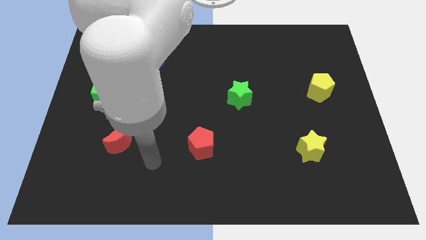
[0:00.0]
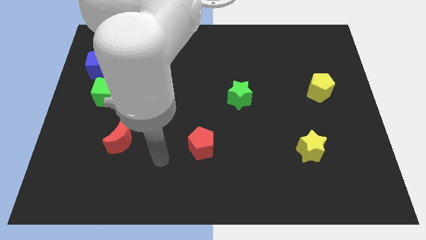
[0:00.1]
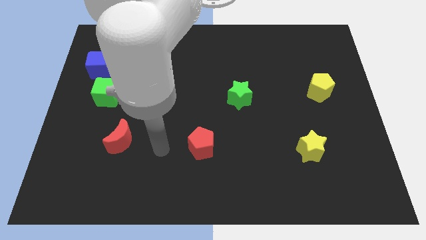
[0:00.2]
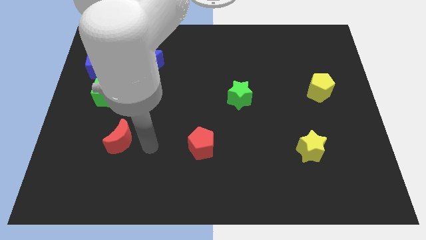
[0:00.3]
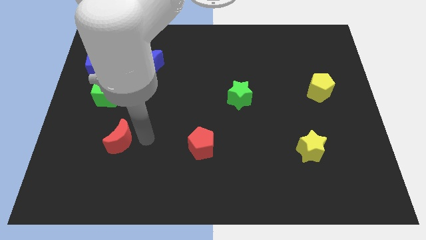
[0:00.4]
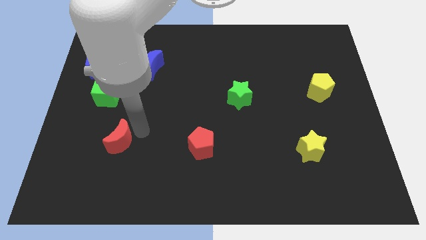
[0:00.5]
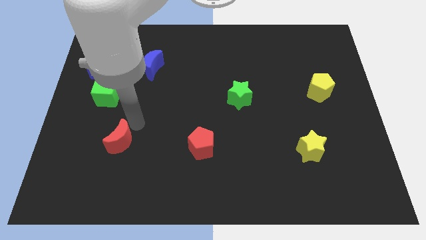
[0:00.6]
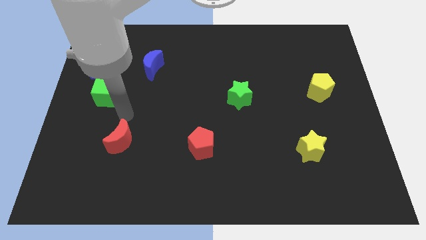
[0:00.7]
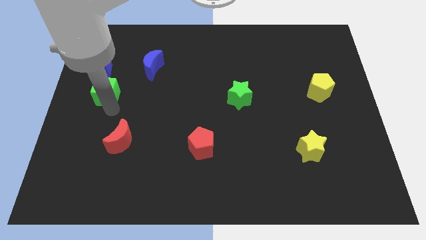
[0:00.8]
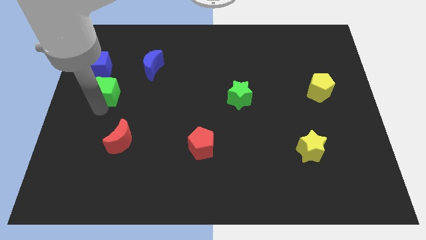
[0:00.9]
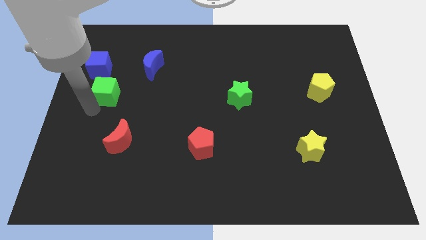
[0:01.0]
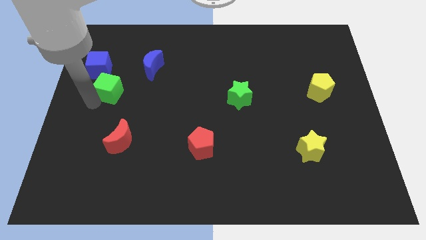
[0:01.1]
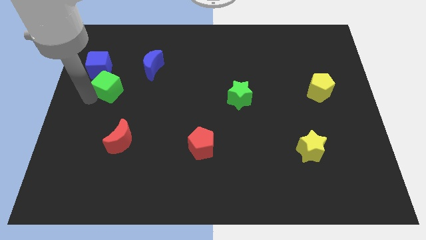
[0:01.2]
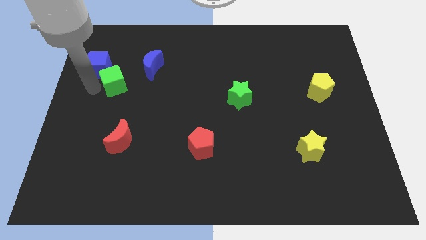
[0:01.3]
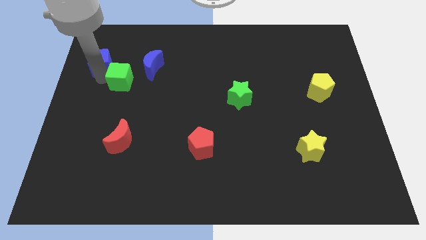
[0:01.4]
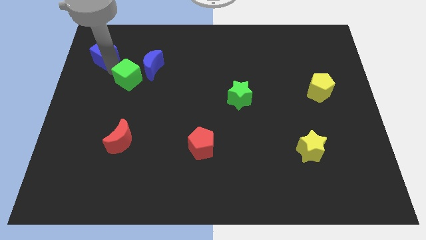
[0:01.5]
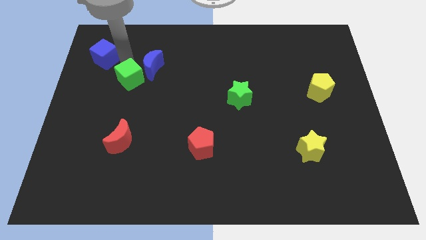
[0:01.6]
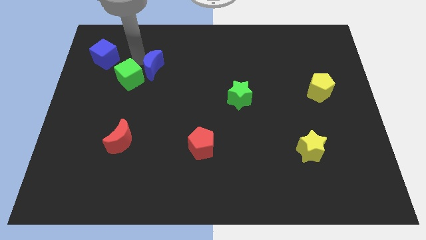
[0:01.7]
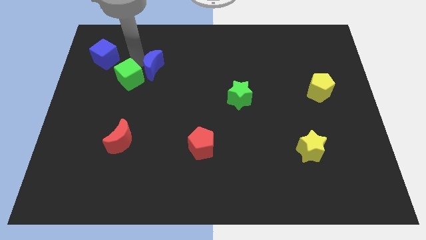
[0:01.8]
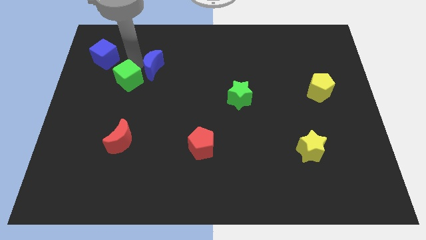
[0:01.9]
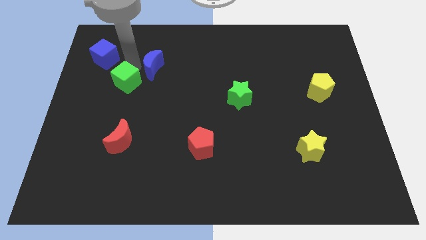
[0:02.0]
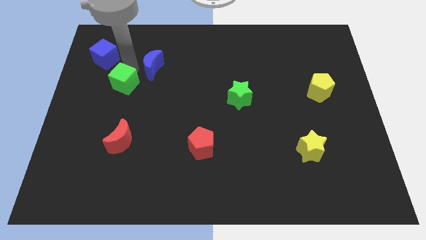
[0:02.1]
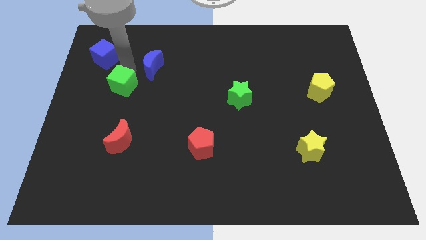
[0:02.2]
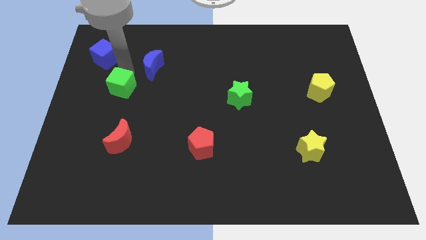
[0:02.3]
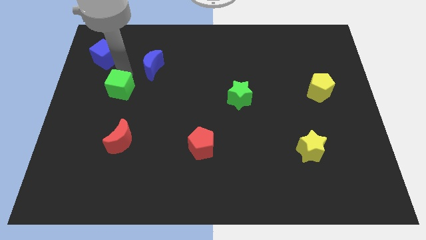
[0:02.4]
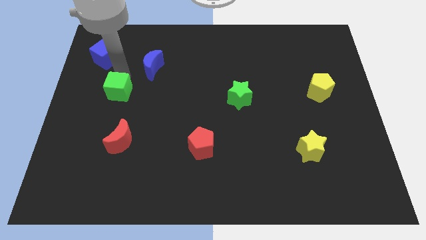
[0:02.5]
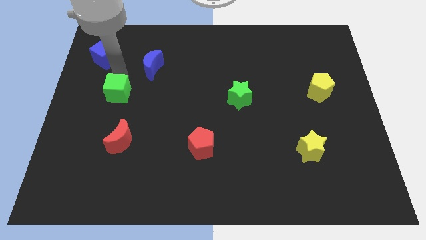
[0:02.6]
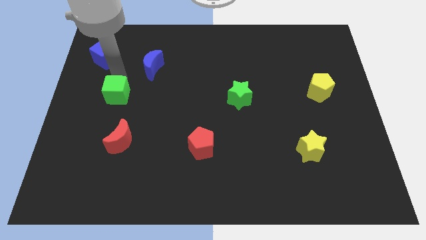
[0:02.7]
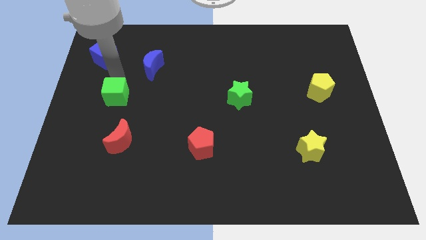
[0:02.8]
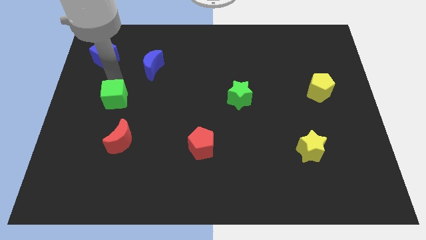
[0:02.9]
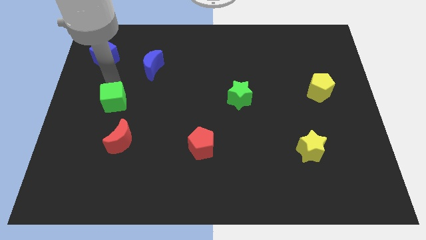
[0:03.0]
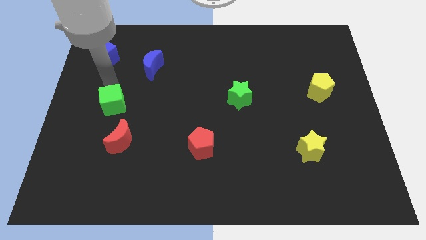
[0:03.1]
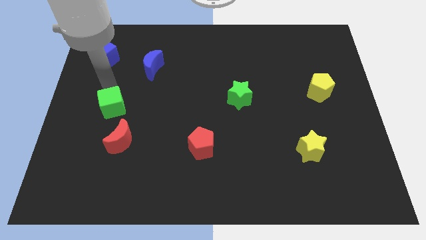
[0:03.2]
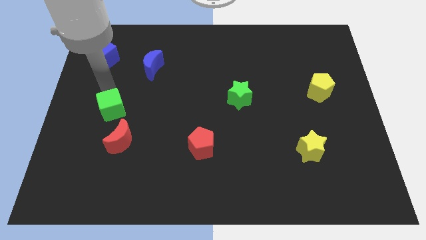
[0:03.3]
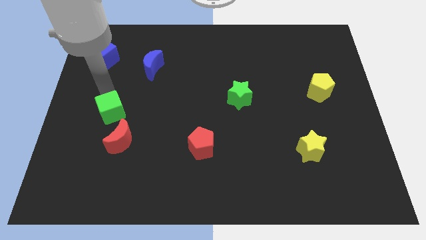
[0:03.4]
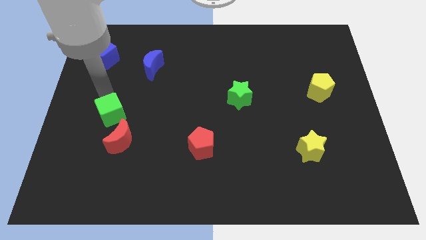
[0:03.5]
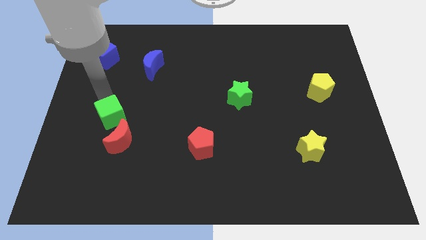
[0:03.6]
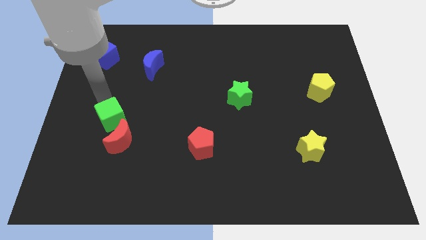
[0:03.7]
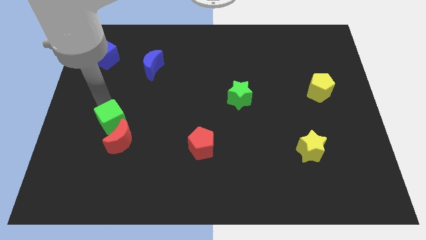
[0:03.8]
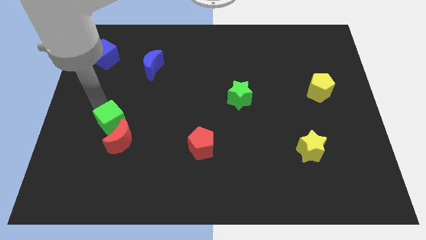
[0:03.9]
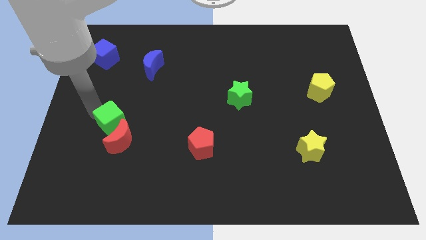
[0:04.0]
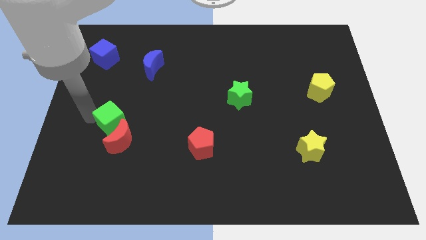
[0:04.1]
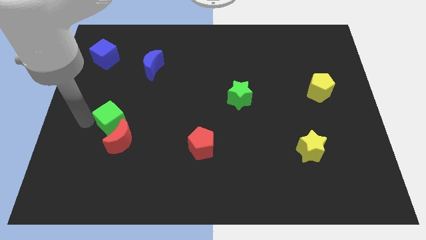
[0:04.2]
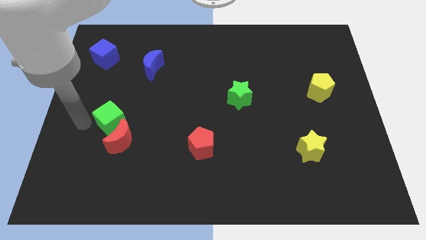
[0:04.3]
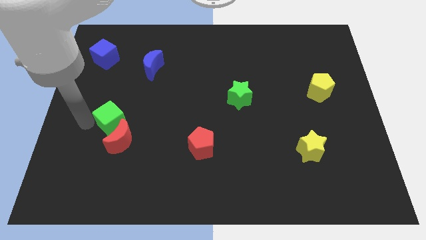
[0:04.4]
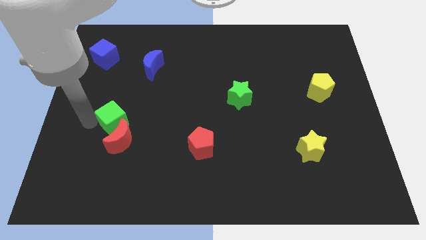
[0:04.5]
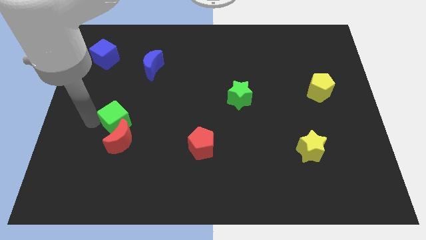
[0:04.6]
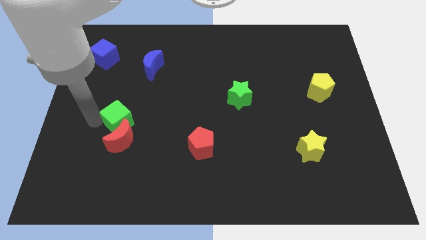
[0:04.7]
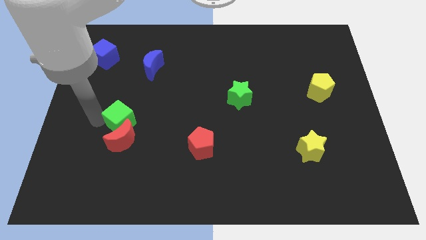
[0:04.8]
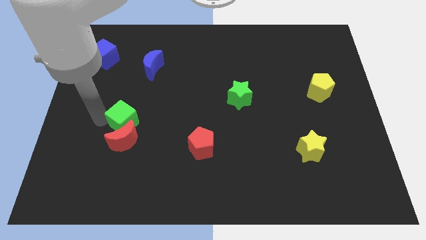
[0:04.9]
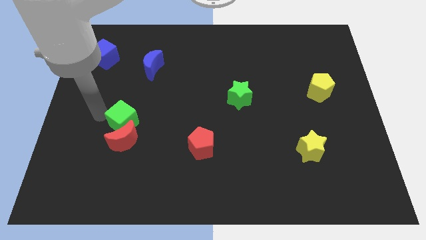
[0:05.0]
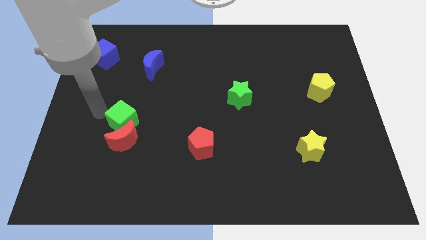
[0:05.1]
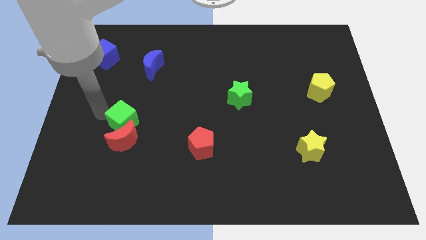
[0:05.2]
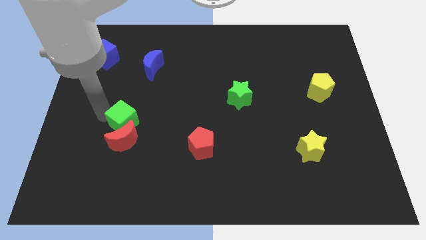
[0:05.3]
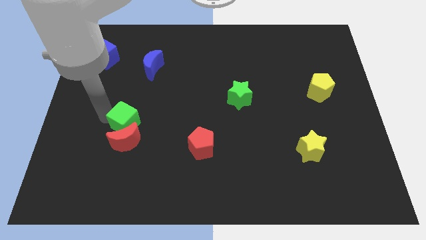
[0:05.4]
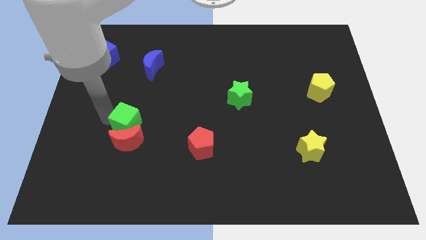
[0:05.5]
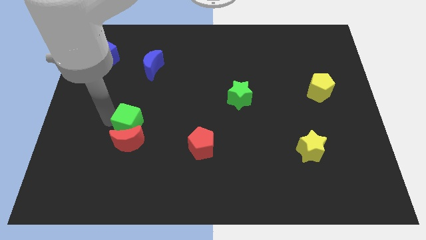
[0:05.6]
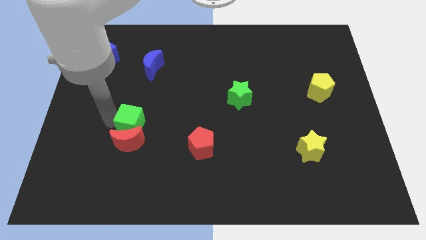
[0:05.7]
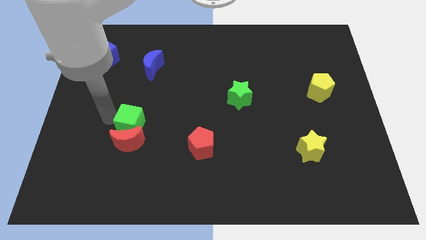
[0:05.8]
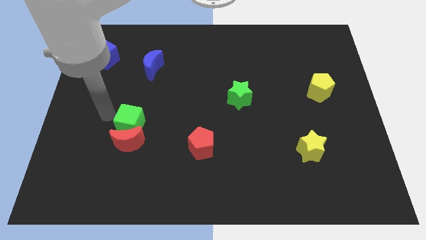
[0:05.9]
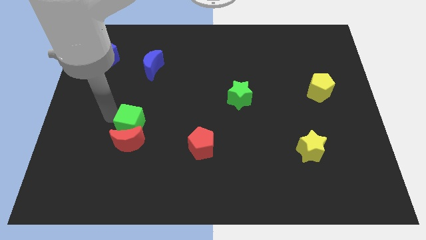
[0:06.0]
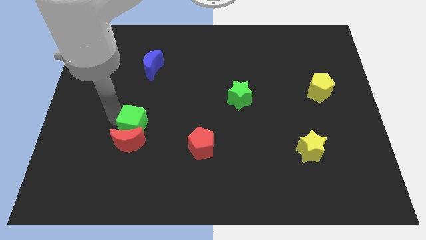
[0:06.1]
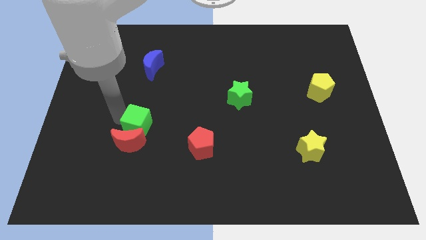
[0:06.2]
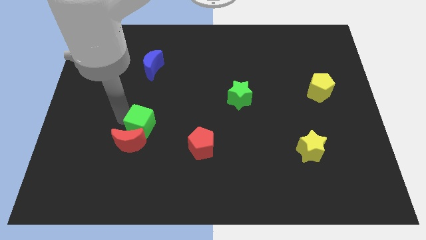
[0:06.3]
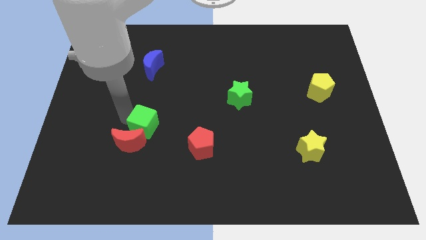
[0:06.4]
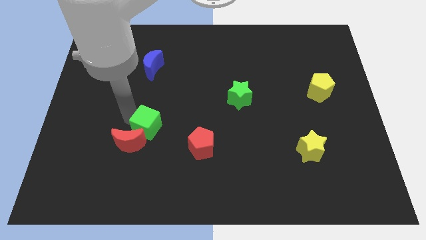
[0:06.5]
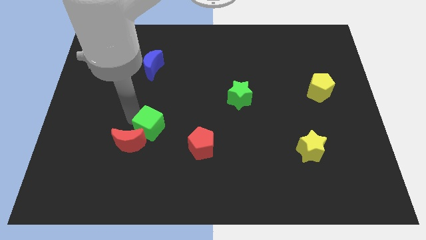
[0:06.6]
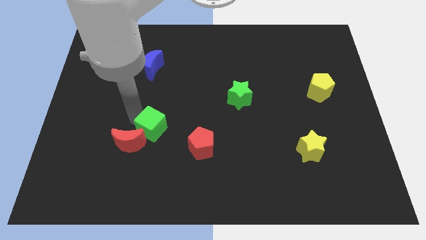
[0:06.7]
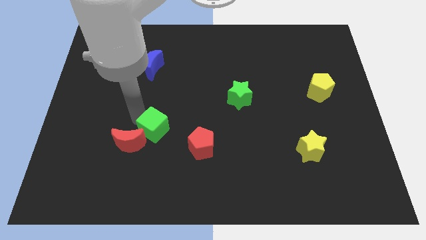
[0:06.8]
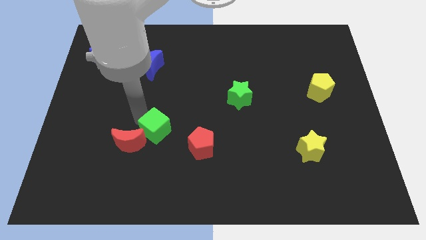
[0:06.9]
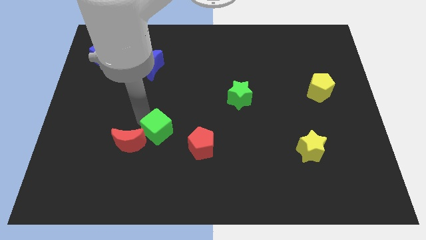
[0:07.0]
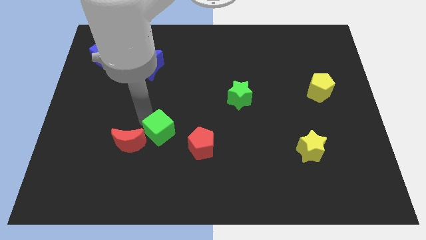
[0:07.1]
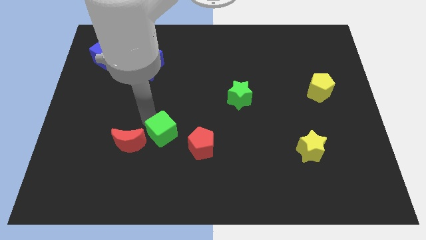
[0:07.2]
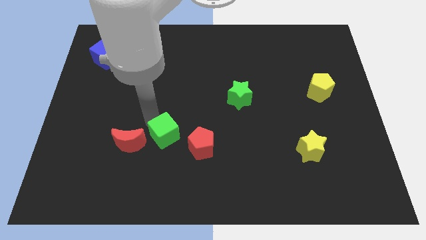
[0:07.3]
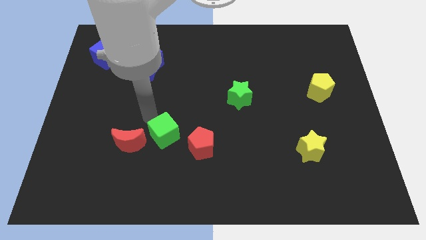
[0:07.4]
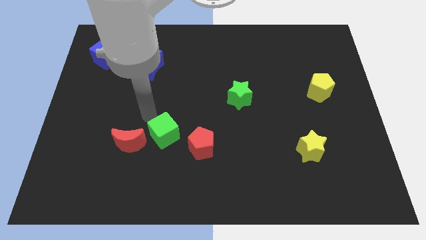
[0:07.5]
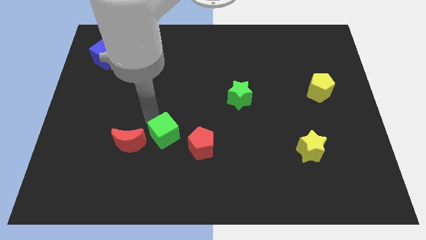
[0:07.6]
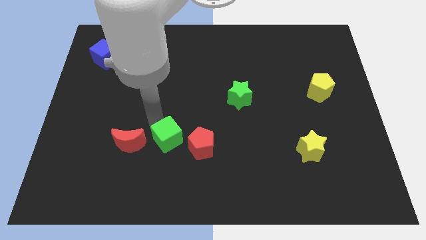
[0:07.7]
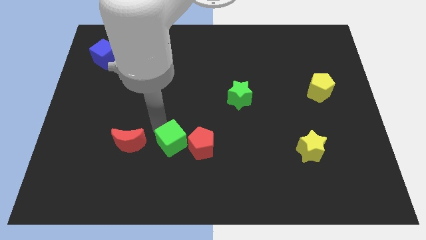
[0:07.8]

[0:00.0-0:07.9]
push the green cube diagonally down and to the right
